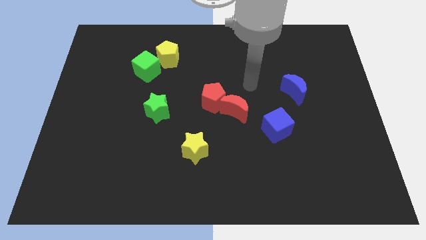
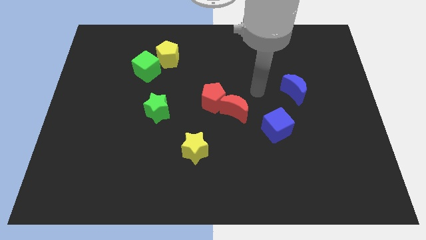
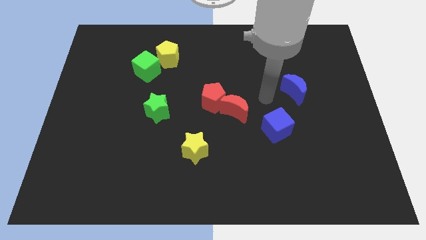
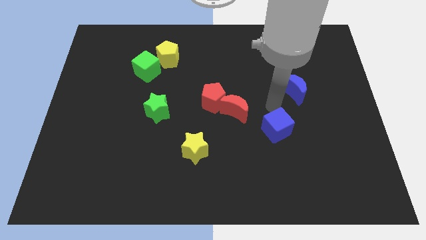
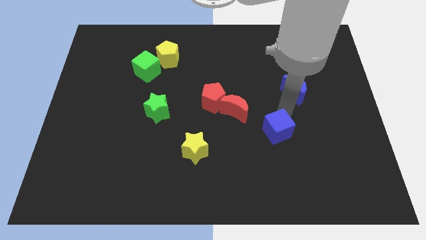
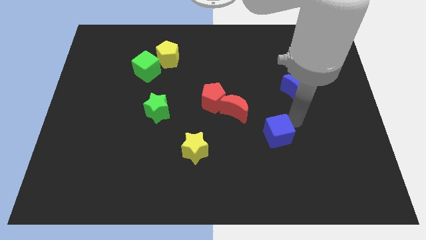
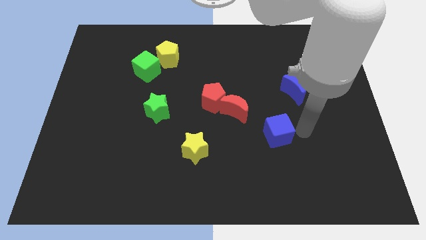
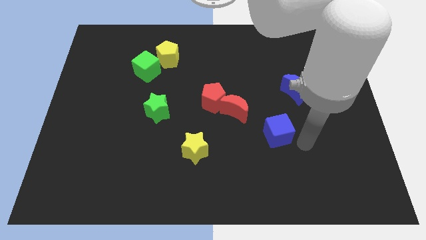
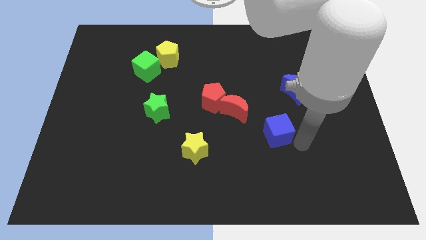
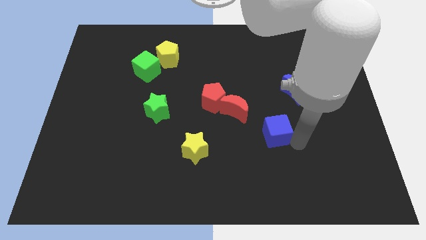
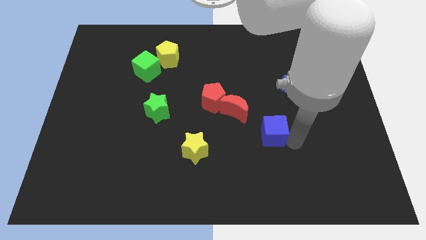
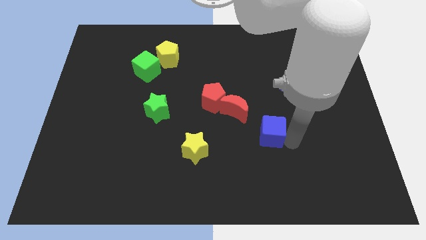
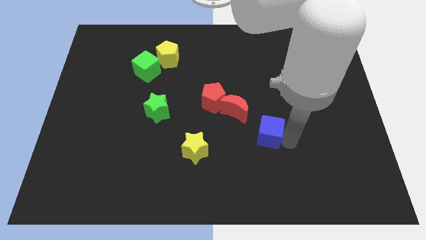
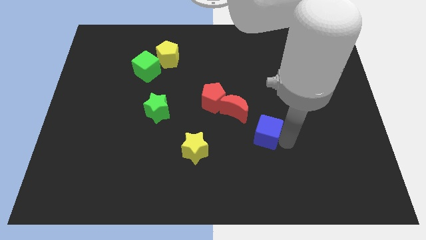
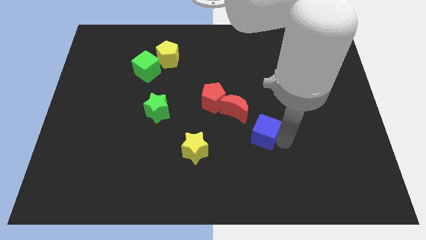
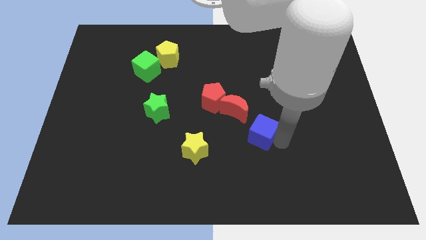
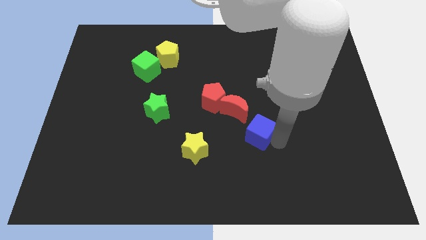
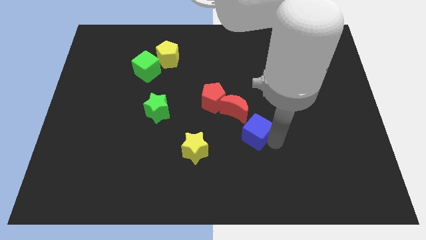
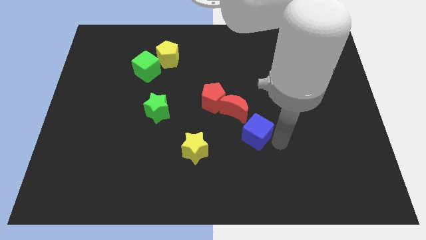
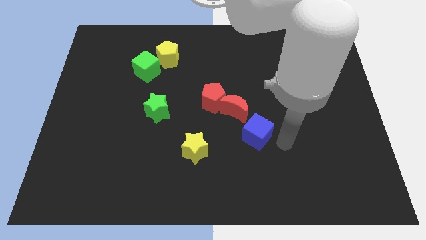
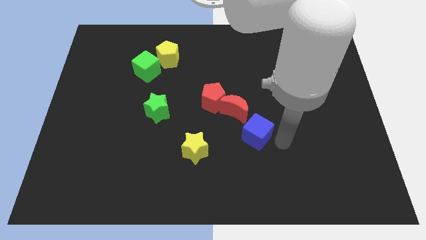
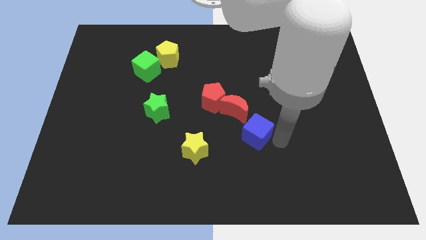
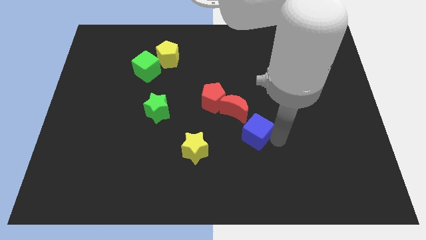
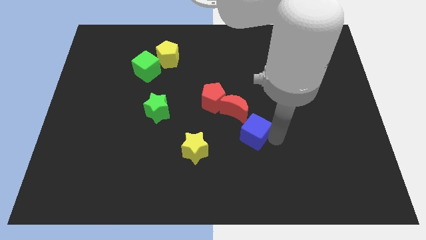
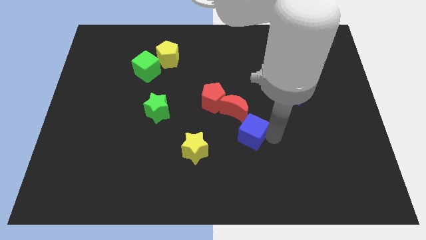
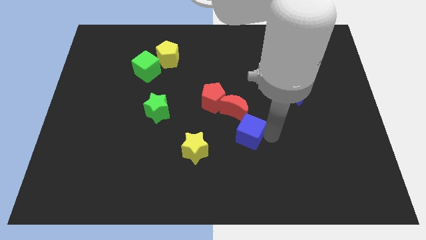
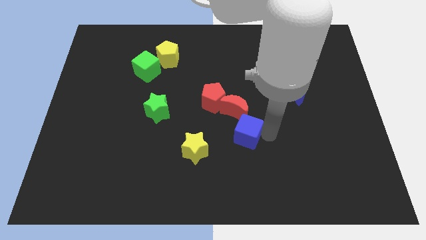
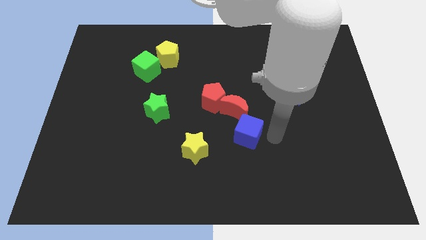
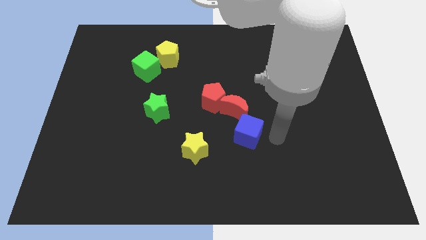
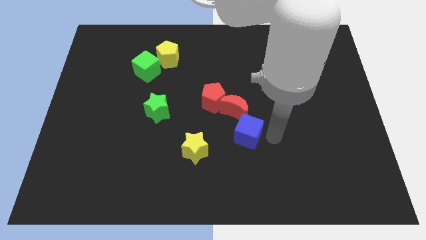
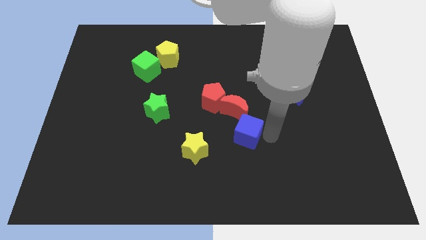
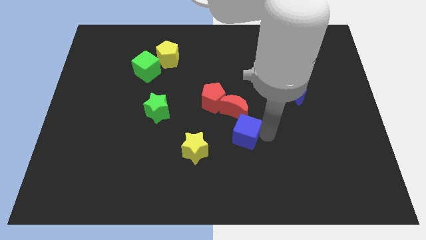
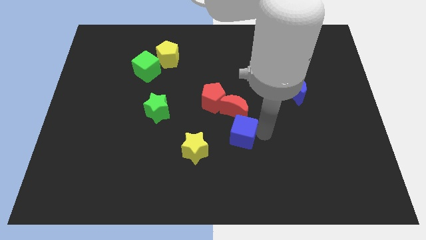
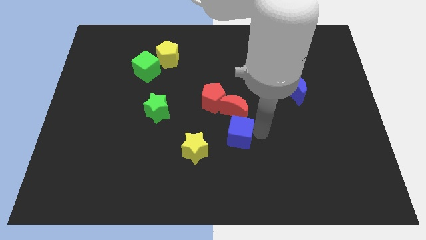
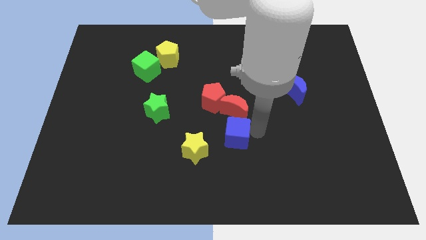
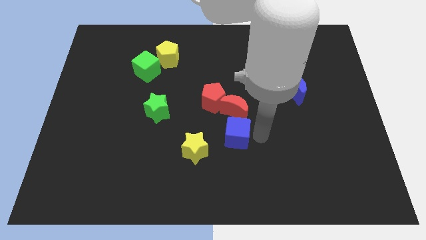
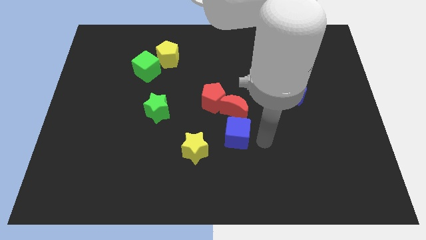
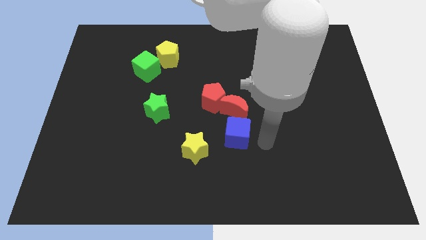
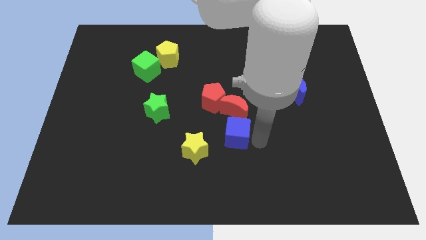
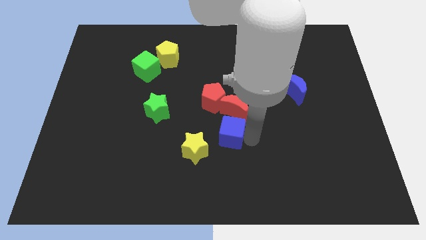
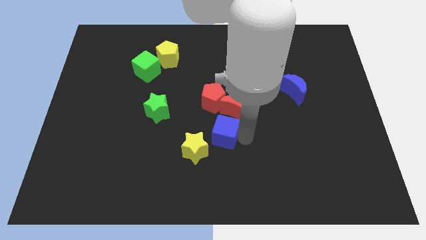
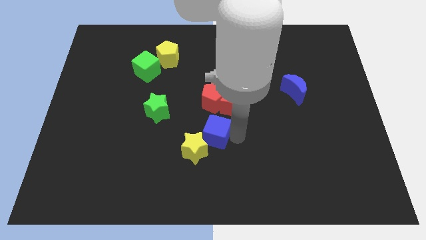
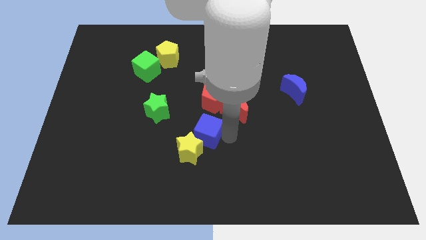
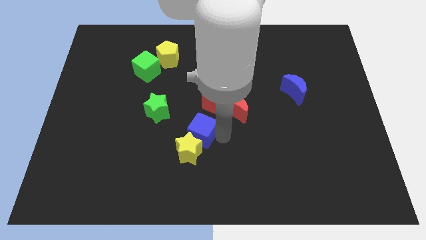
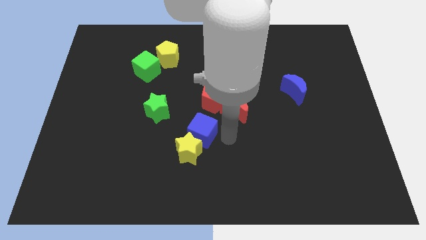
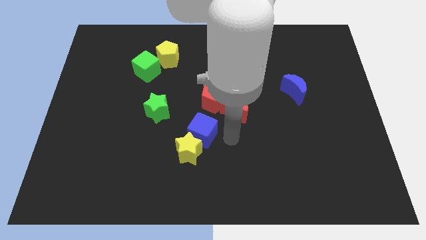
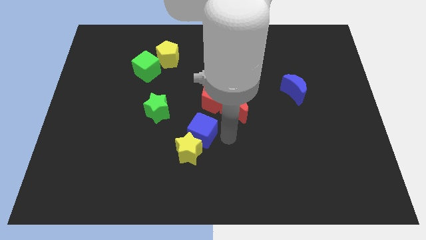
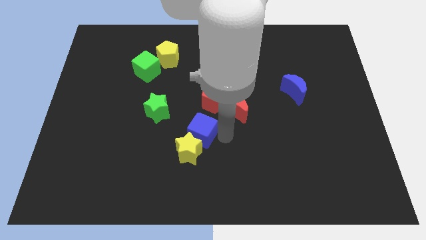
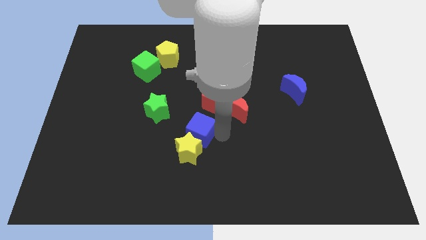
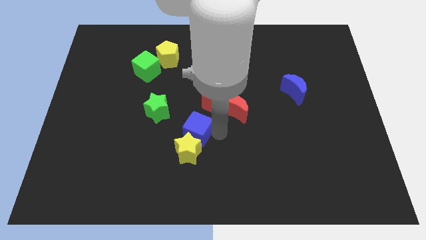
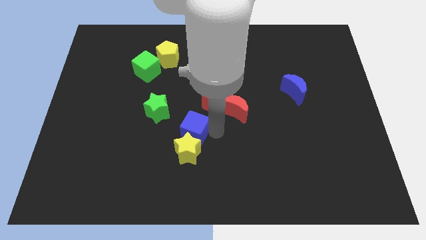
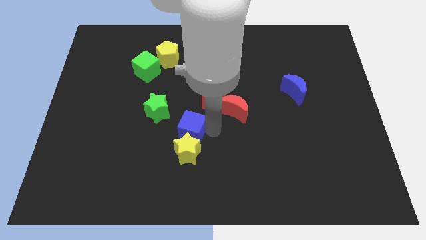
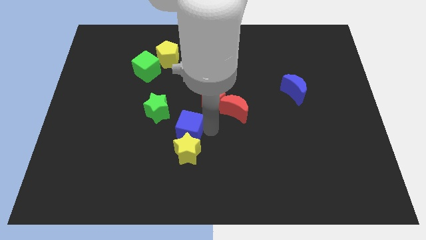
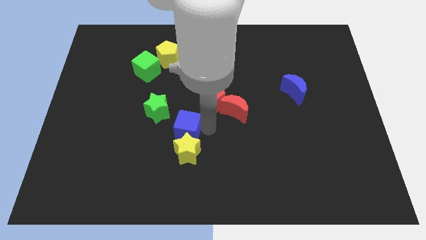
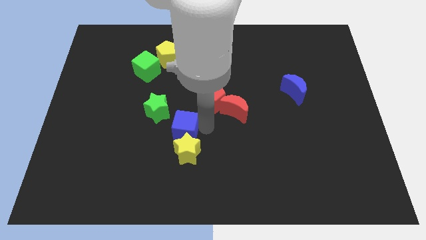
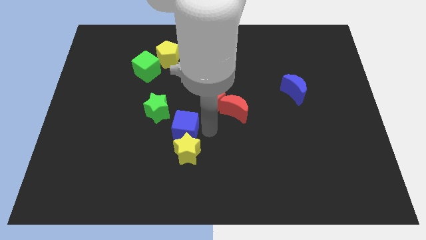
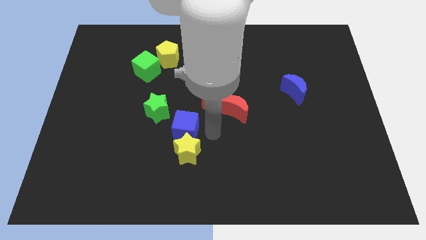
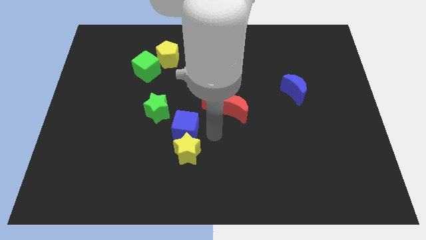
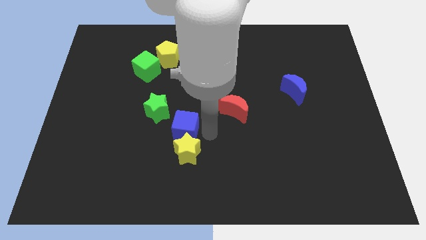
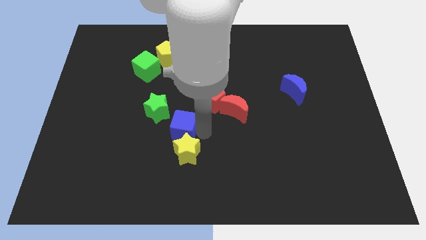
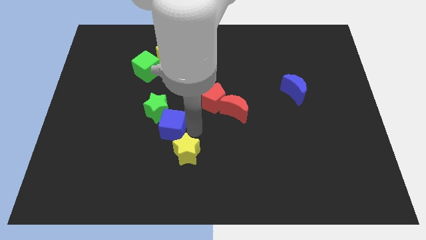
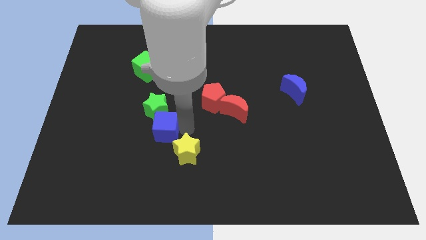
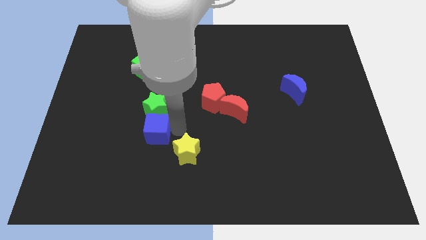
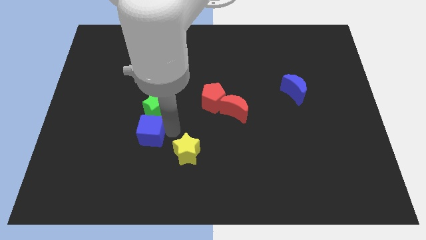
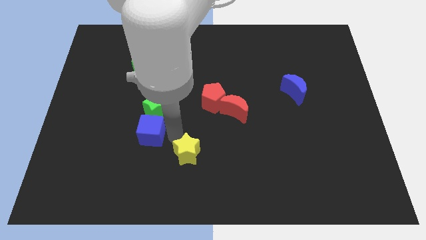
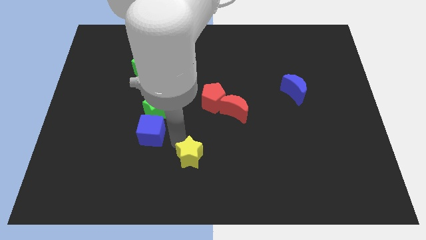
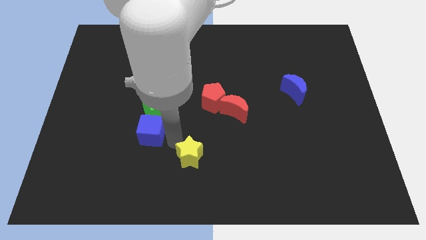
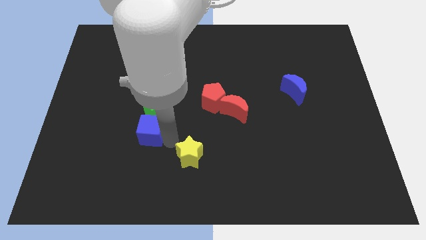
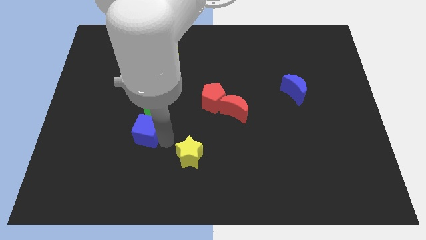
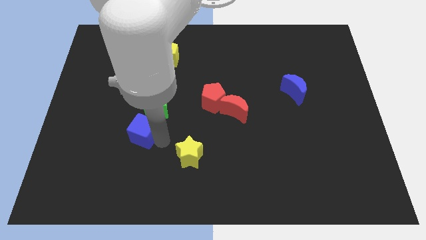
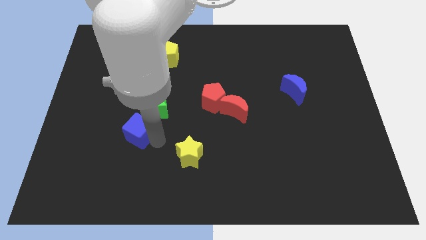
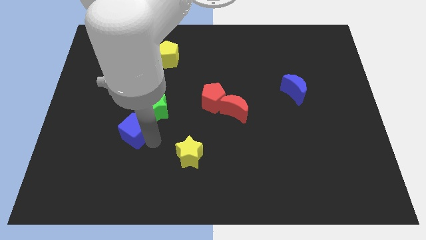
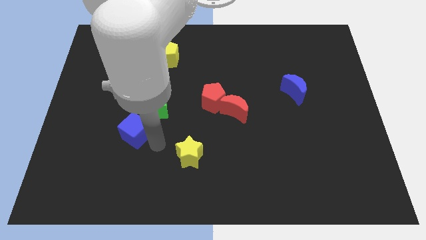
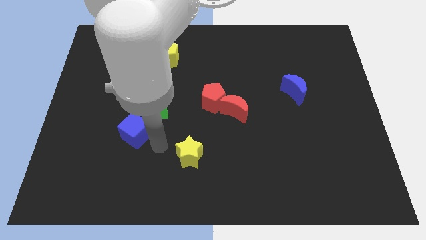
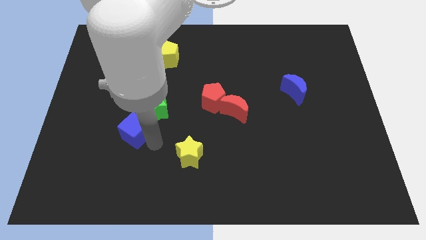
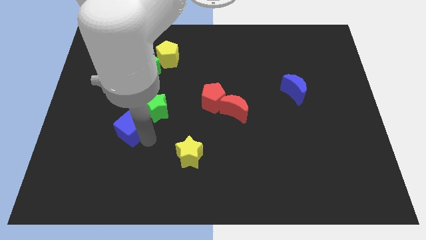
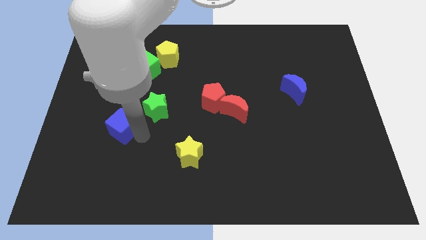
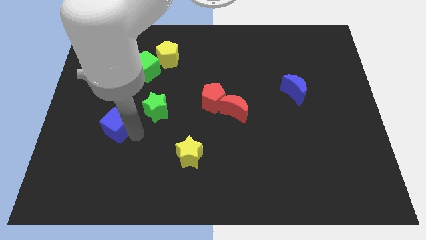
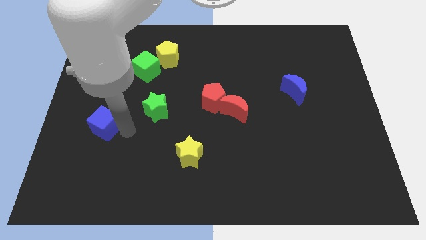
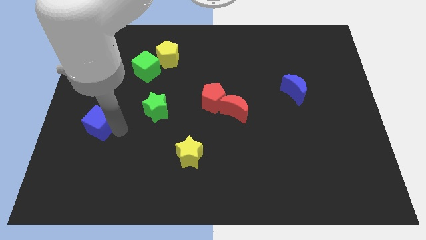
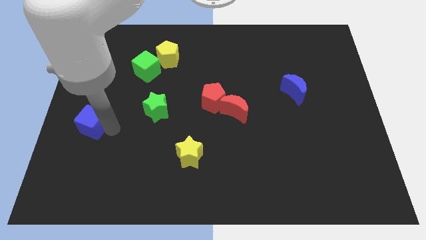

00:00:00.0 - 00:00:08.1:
move the blue cube to the left side of the board
